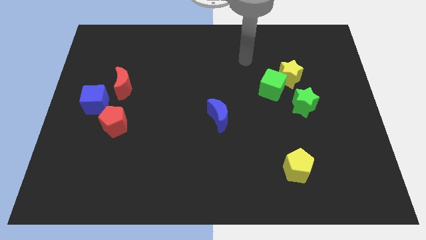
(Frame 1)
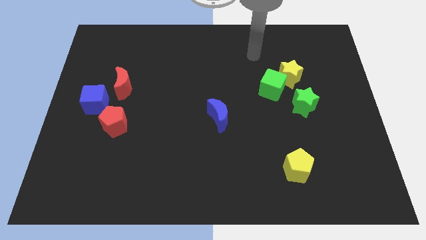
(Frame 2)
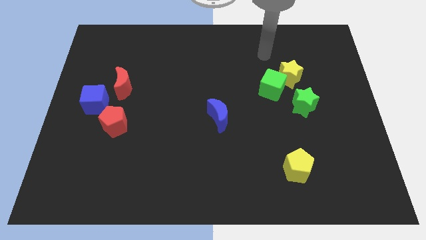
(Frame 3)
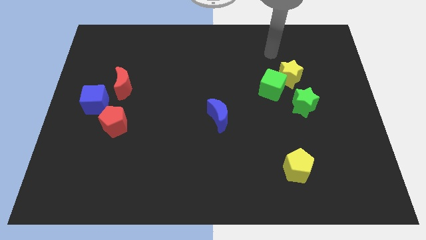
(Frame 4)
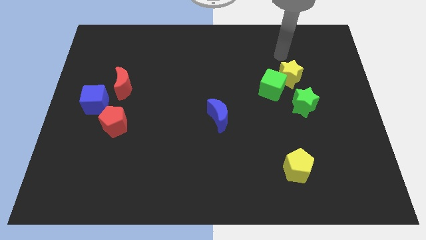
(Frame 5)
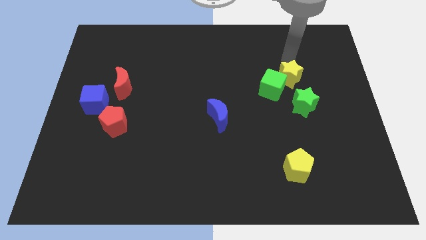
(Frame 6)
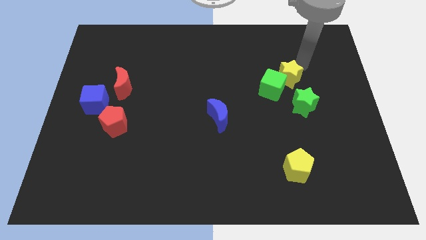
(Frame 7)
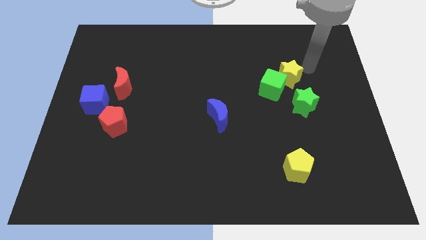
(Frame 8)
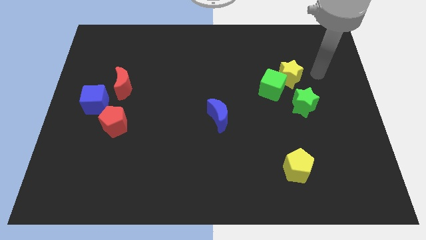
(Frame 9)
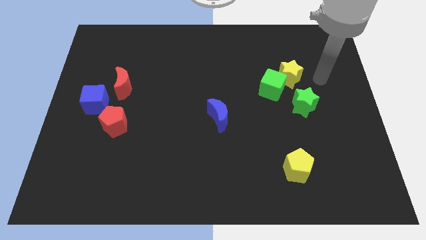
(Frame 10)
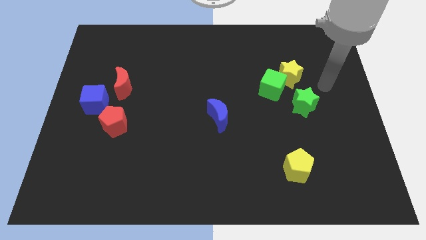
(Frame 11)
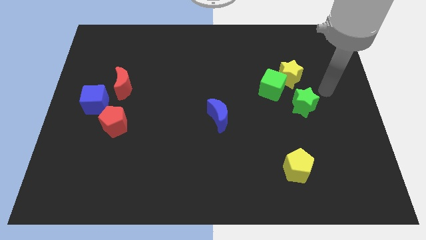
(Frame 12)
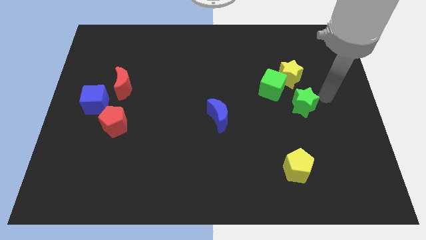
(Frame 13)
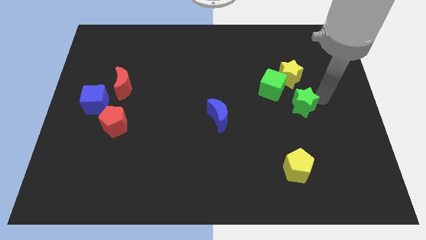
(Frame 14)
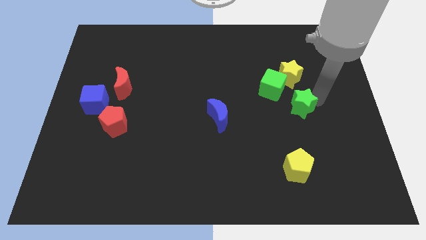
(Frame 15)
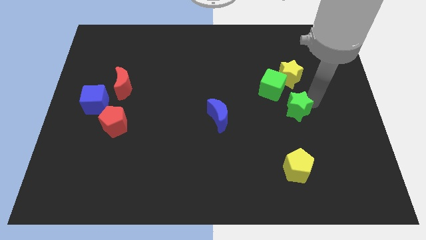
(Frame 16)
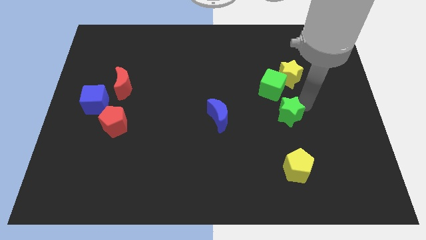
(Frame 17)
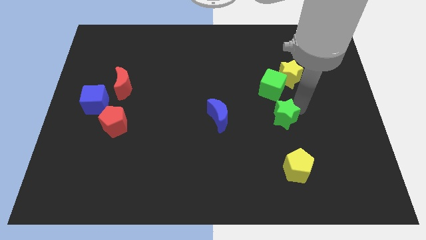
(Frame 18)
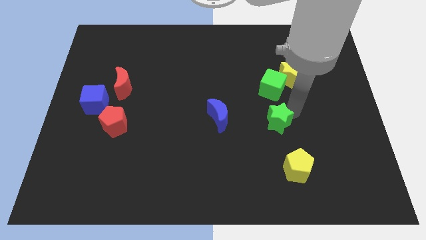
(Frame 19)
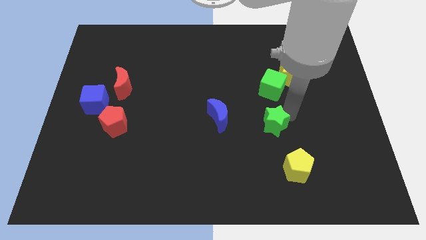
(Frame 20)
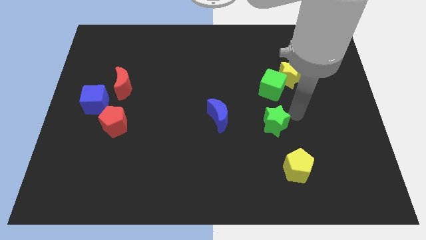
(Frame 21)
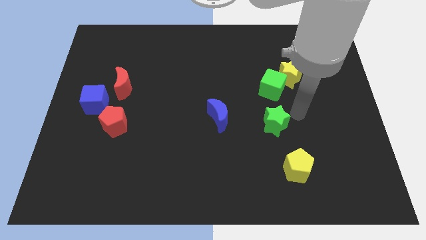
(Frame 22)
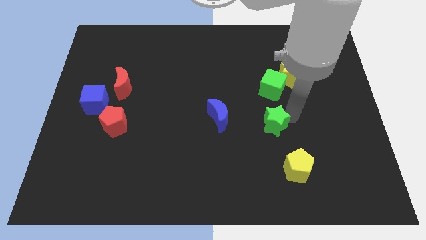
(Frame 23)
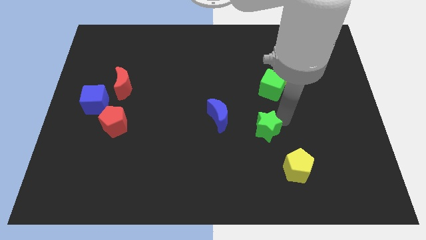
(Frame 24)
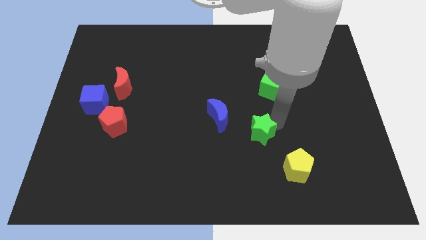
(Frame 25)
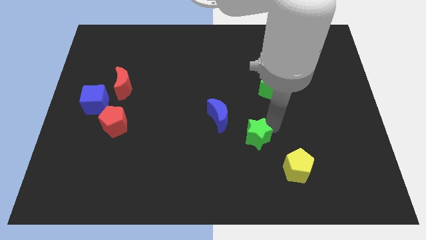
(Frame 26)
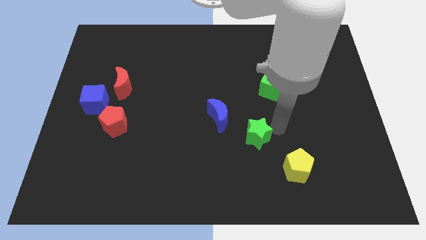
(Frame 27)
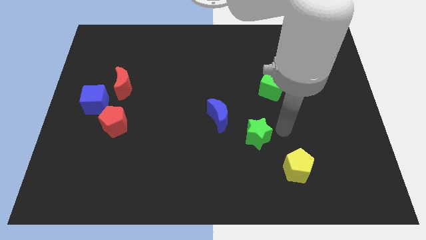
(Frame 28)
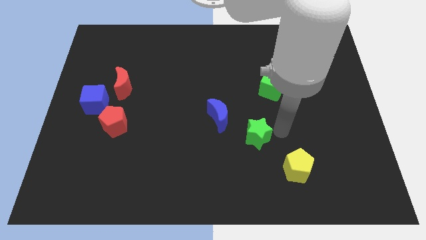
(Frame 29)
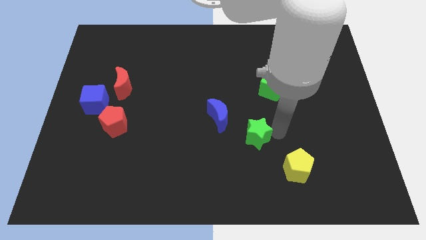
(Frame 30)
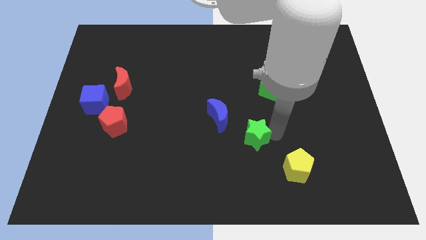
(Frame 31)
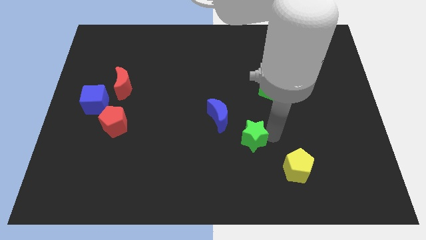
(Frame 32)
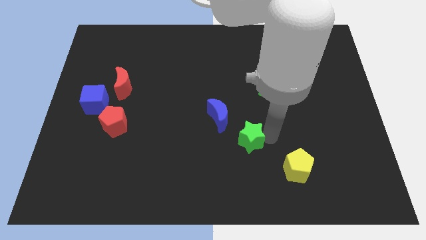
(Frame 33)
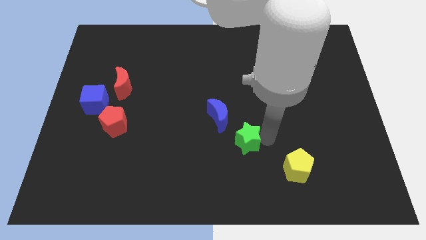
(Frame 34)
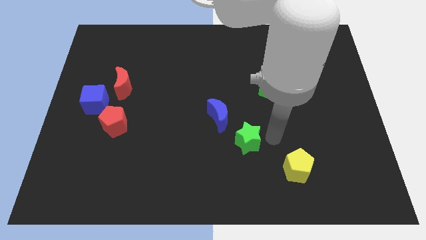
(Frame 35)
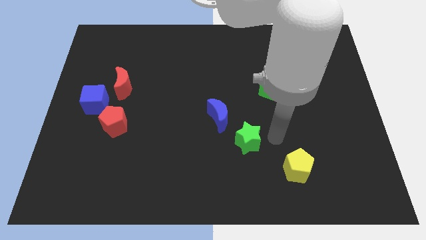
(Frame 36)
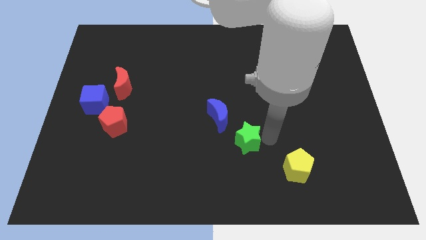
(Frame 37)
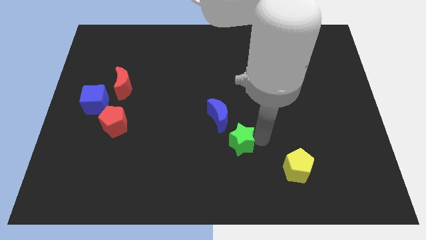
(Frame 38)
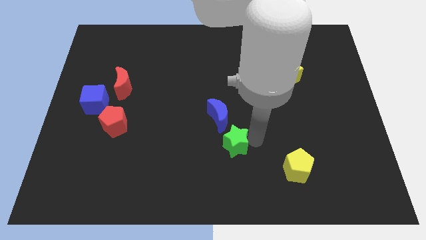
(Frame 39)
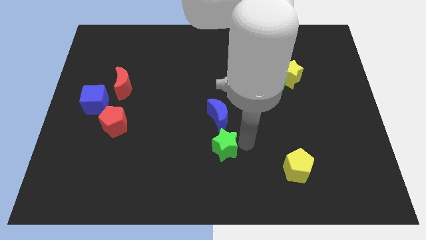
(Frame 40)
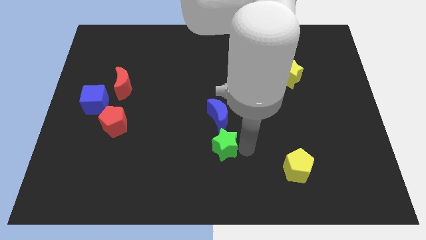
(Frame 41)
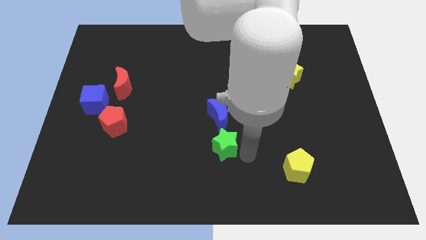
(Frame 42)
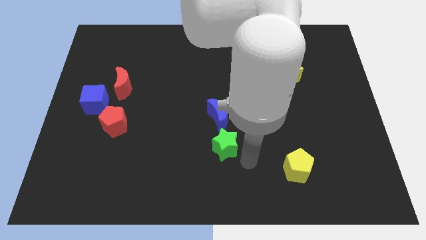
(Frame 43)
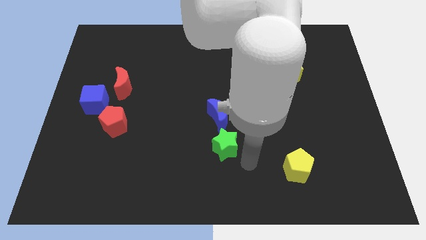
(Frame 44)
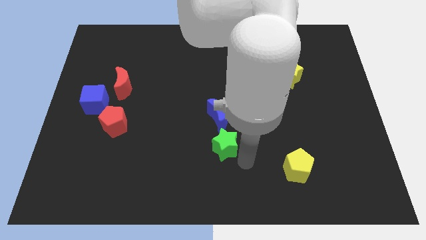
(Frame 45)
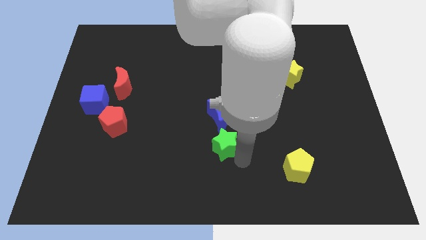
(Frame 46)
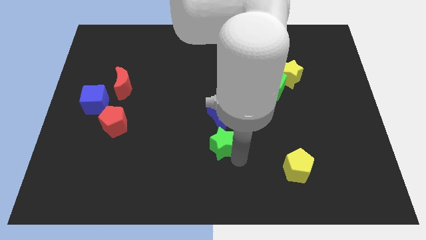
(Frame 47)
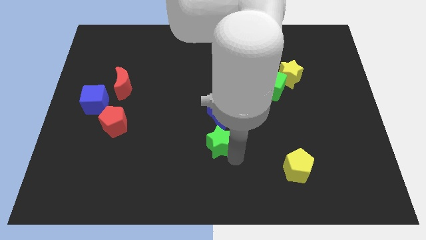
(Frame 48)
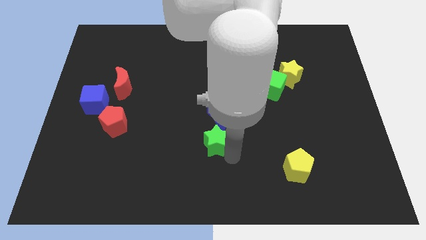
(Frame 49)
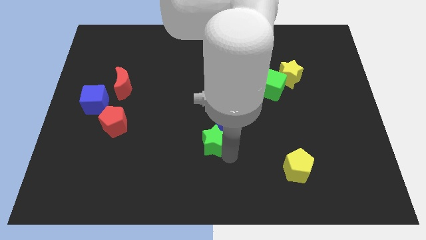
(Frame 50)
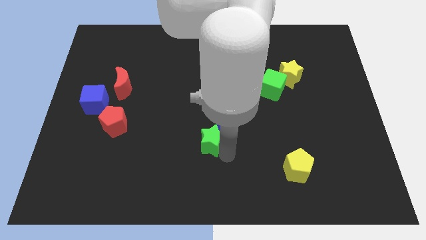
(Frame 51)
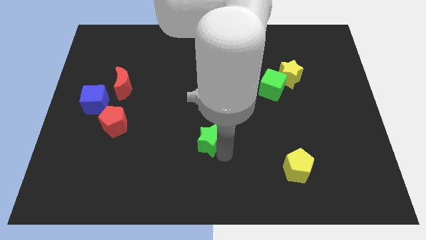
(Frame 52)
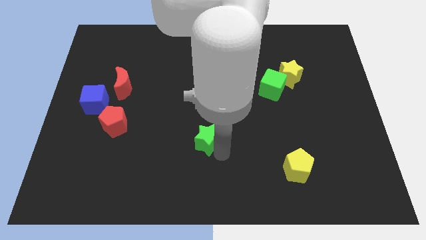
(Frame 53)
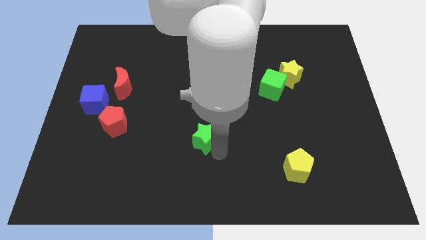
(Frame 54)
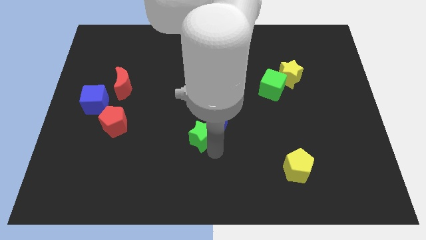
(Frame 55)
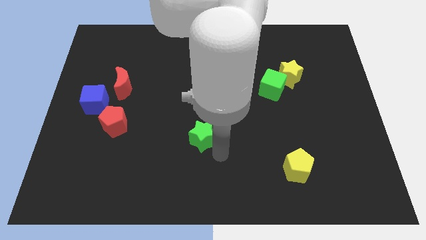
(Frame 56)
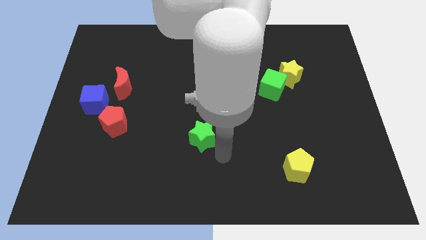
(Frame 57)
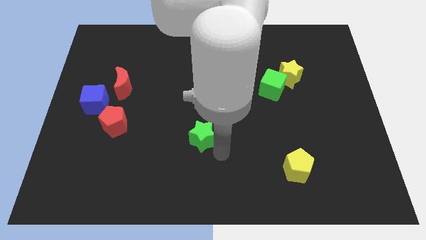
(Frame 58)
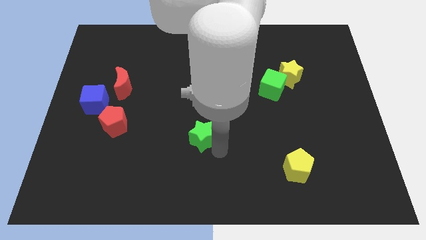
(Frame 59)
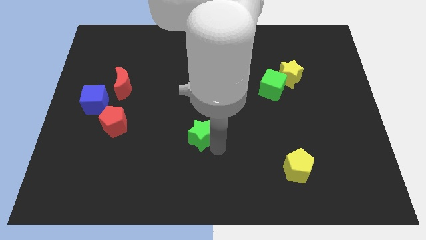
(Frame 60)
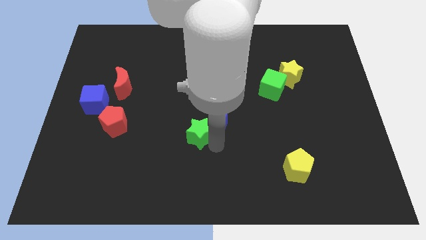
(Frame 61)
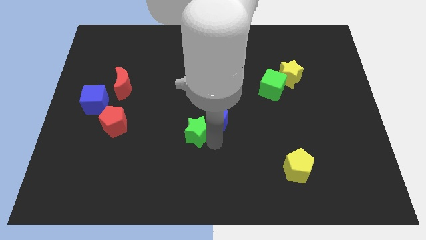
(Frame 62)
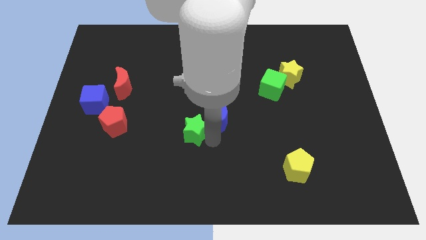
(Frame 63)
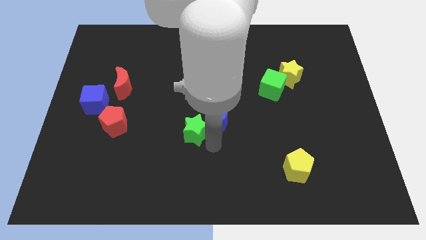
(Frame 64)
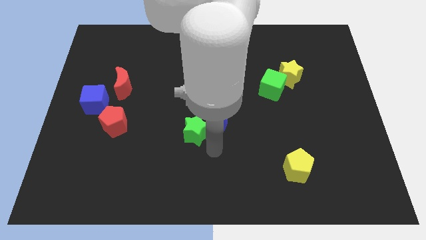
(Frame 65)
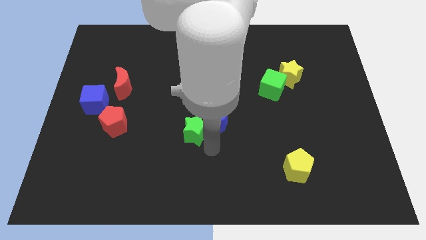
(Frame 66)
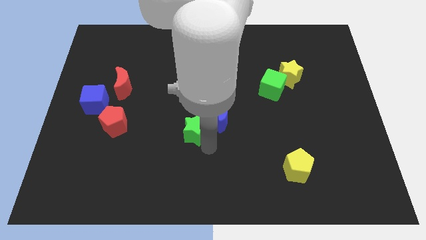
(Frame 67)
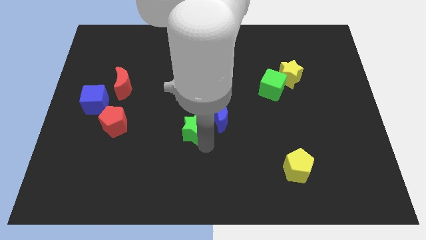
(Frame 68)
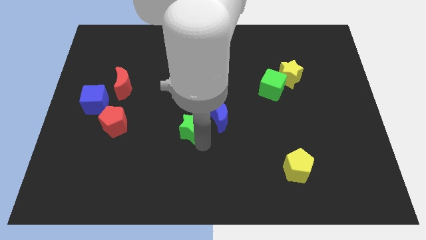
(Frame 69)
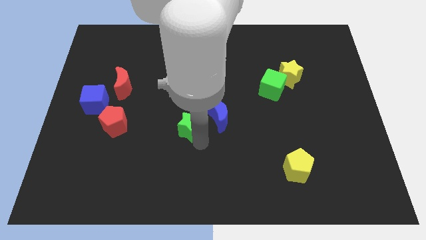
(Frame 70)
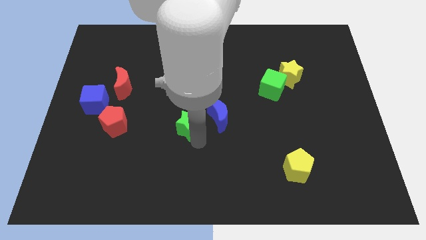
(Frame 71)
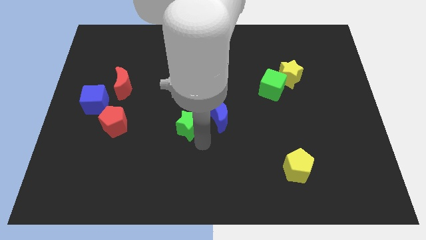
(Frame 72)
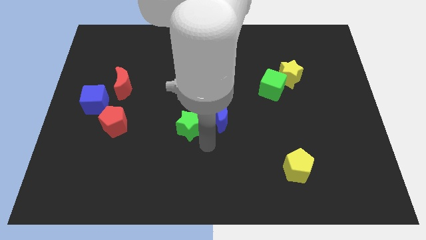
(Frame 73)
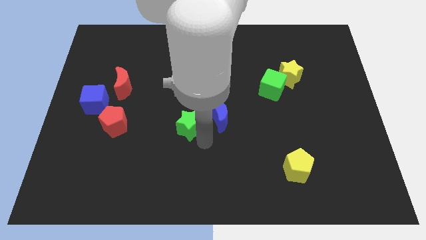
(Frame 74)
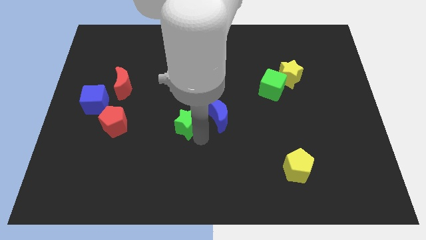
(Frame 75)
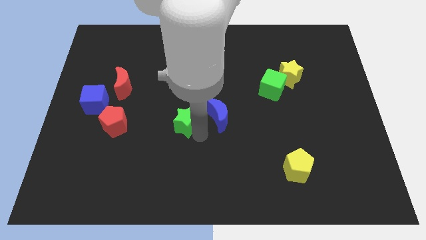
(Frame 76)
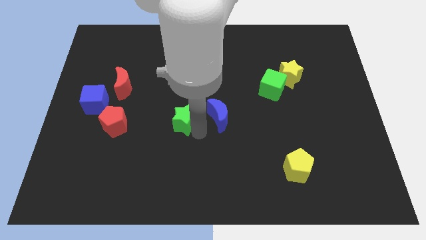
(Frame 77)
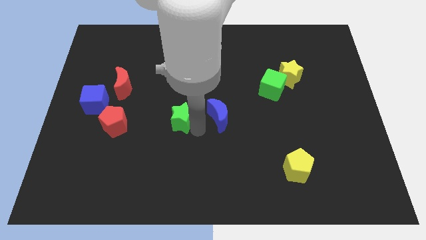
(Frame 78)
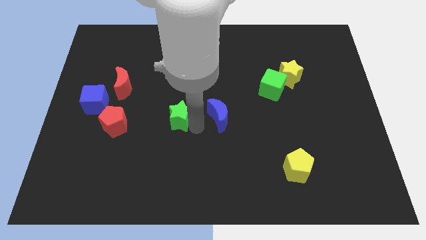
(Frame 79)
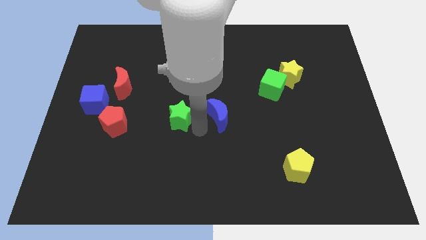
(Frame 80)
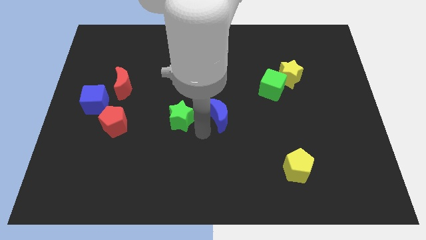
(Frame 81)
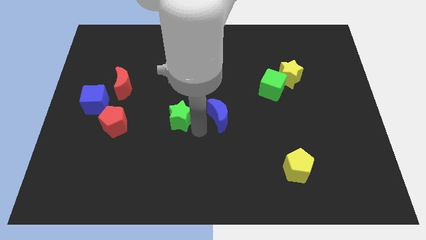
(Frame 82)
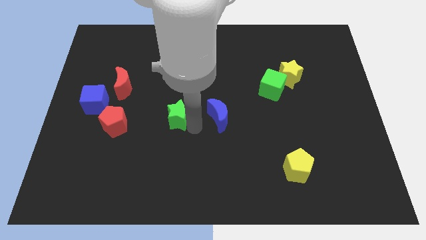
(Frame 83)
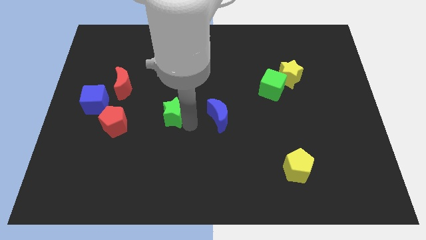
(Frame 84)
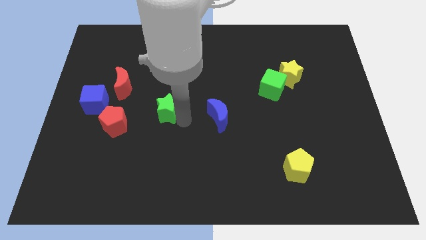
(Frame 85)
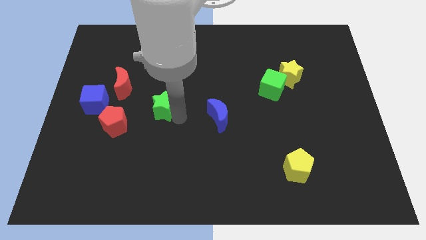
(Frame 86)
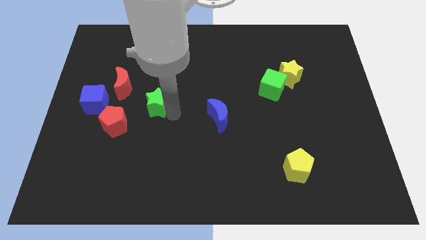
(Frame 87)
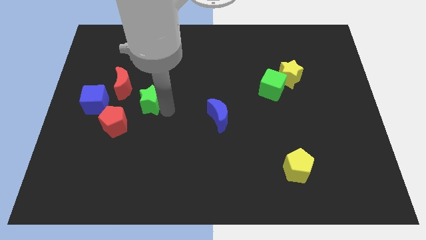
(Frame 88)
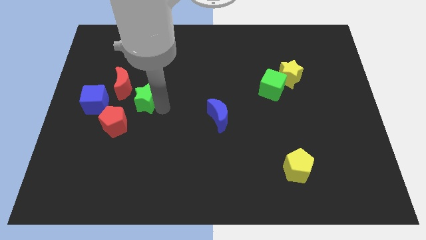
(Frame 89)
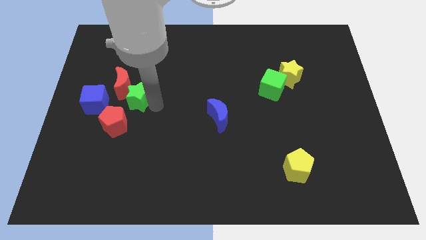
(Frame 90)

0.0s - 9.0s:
slide the green star next to the red moon
